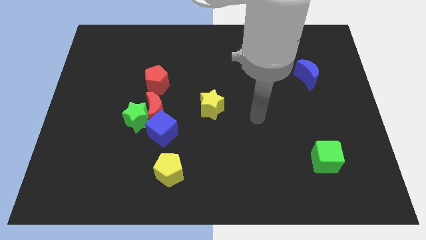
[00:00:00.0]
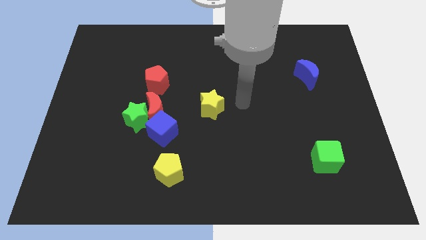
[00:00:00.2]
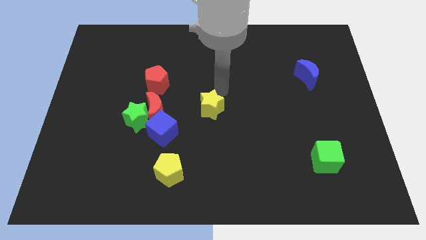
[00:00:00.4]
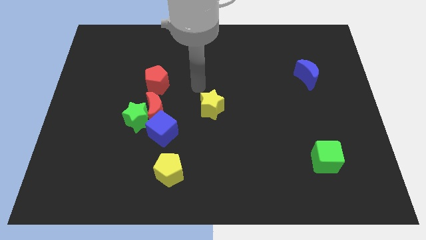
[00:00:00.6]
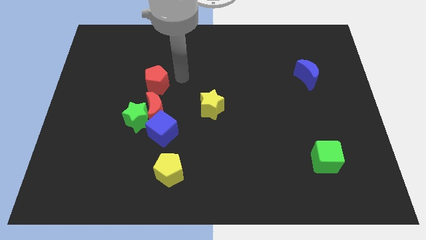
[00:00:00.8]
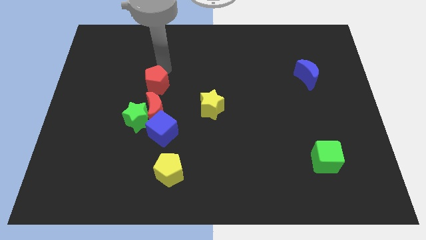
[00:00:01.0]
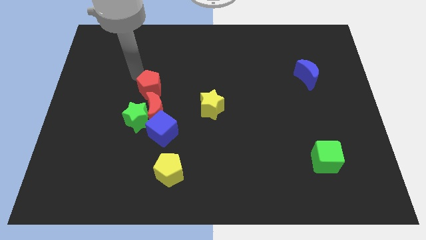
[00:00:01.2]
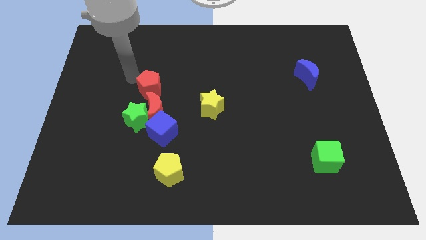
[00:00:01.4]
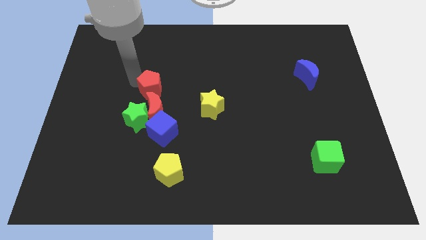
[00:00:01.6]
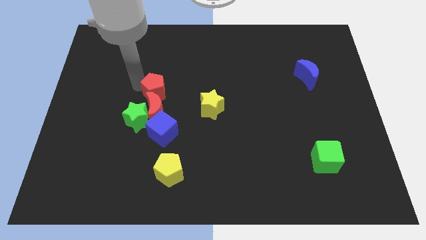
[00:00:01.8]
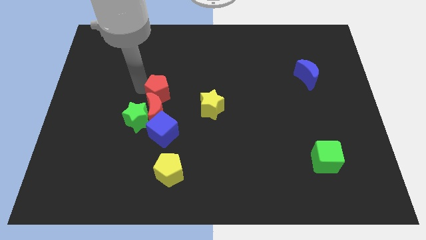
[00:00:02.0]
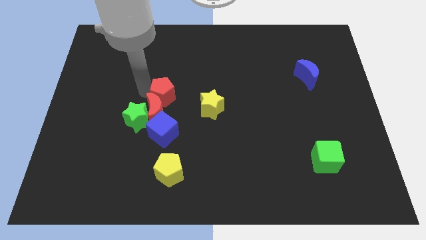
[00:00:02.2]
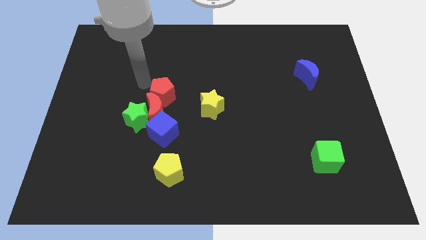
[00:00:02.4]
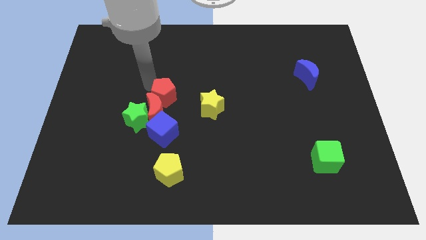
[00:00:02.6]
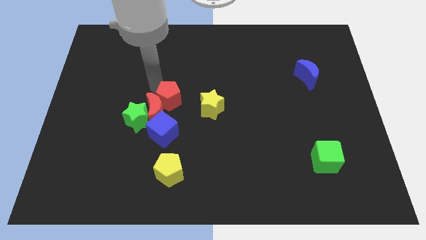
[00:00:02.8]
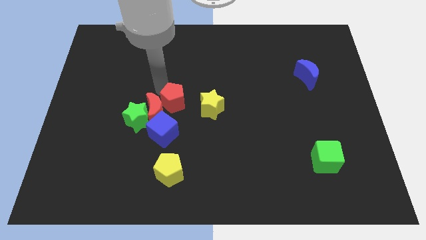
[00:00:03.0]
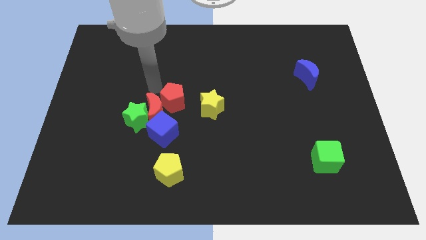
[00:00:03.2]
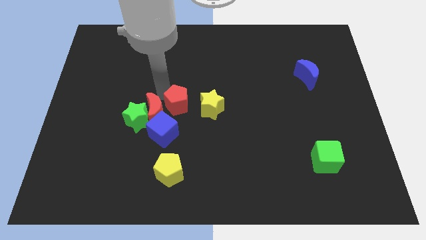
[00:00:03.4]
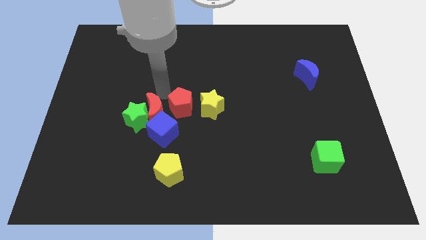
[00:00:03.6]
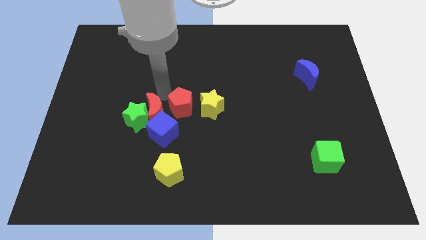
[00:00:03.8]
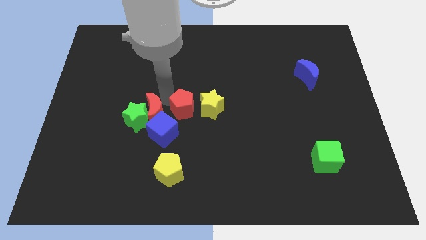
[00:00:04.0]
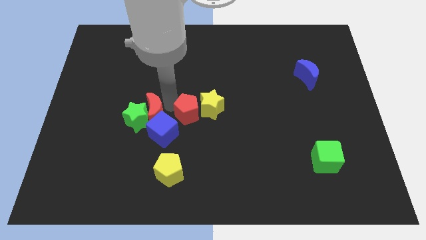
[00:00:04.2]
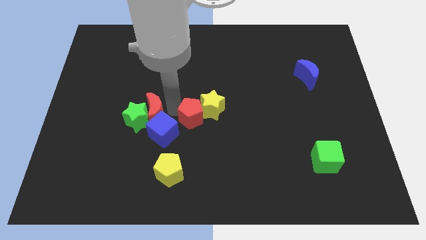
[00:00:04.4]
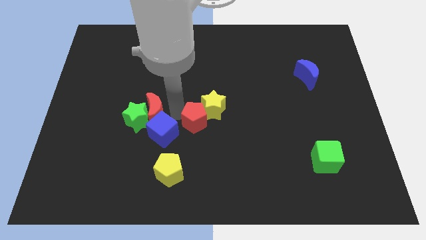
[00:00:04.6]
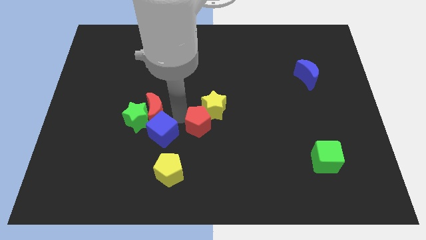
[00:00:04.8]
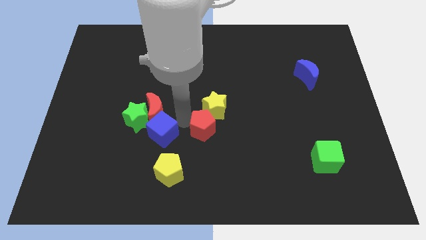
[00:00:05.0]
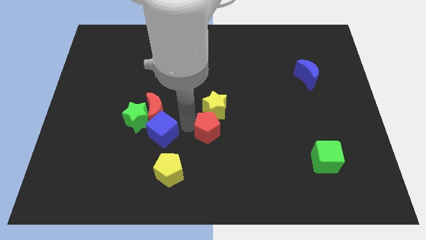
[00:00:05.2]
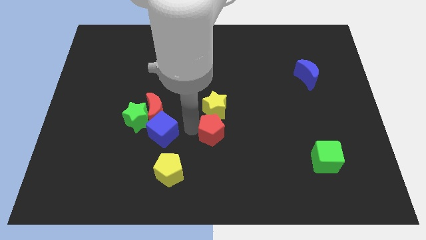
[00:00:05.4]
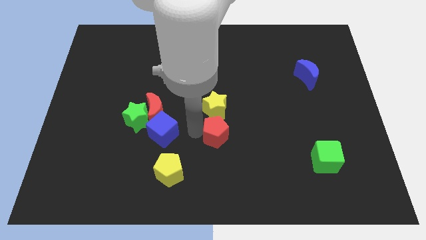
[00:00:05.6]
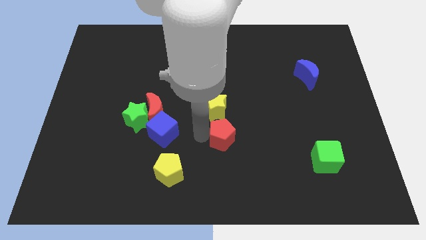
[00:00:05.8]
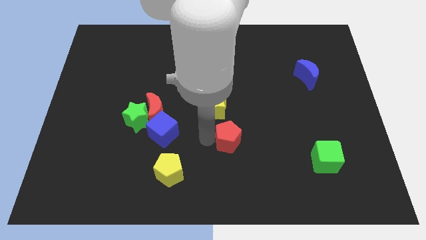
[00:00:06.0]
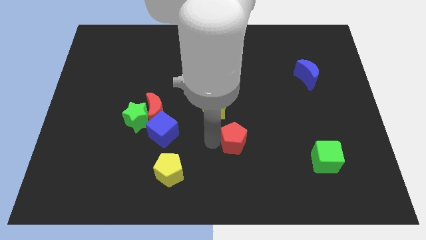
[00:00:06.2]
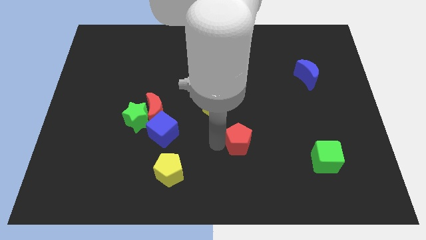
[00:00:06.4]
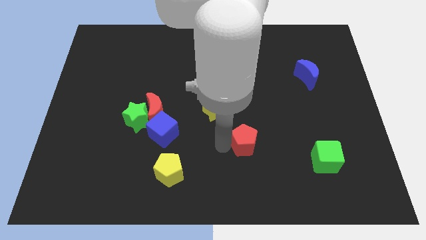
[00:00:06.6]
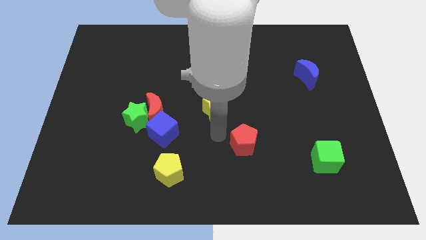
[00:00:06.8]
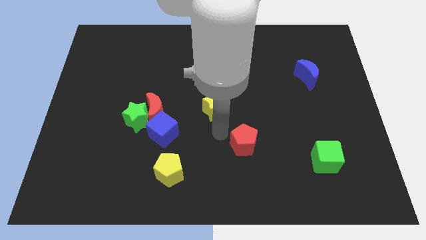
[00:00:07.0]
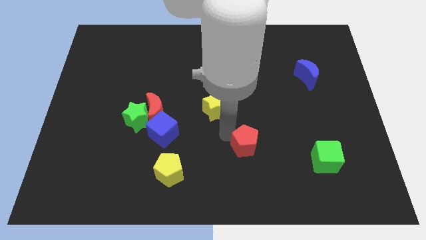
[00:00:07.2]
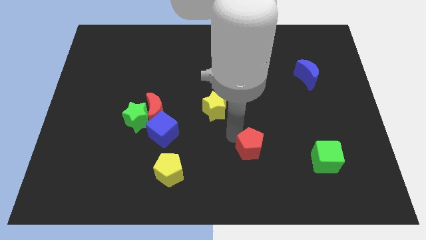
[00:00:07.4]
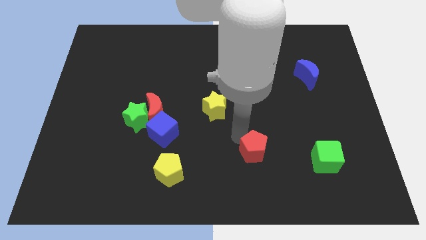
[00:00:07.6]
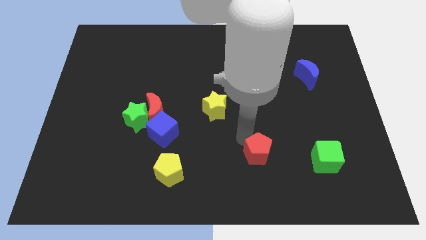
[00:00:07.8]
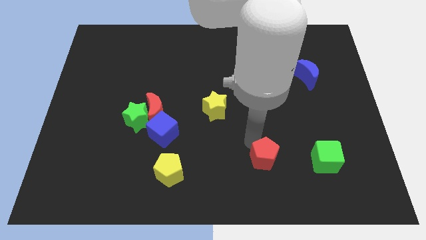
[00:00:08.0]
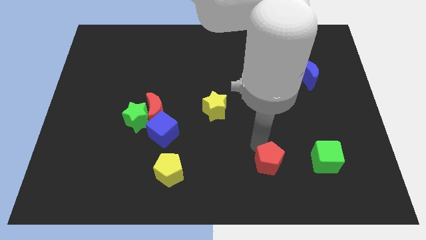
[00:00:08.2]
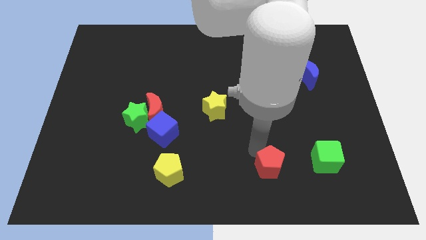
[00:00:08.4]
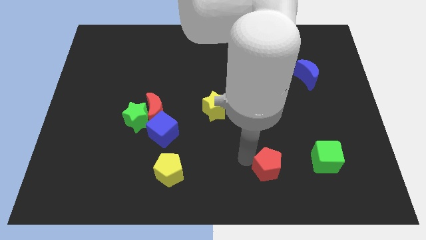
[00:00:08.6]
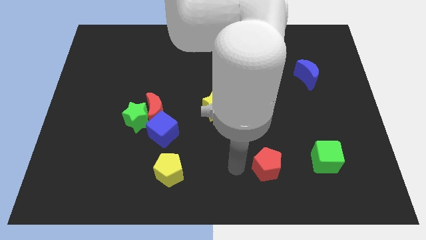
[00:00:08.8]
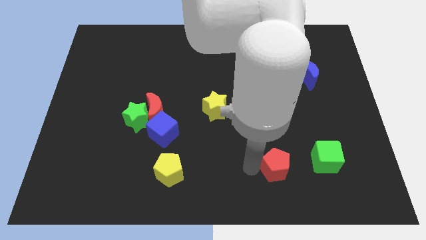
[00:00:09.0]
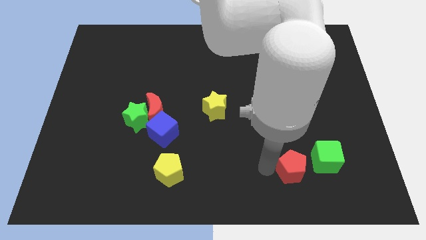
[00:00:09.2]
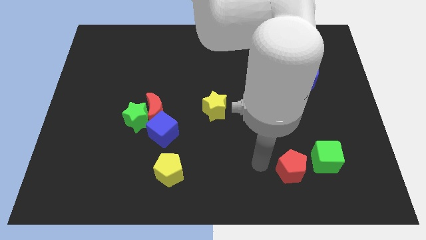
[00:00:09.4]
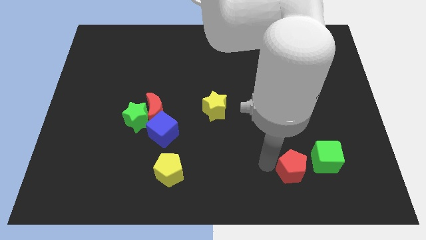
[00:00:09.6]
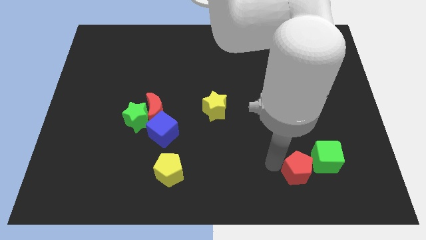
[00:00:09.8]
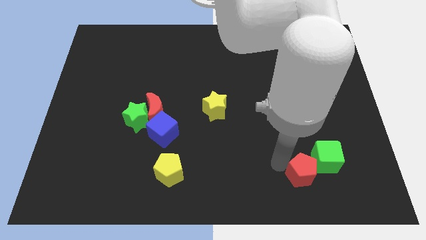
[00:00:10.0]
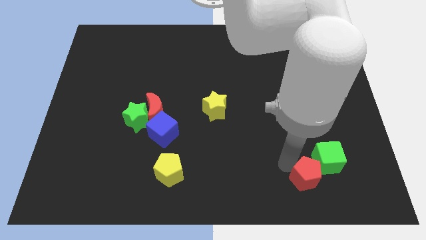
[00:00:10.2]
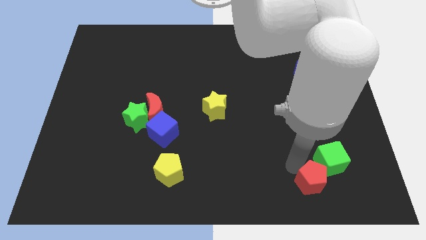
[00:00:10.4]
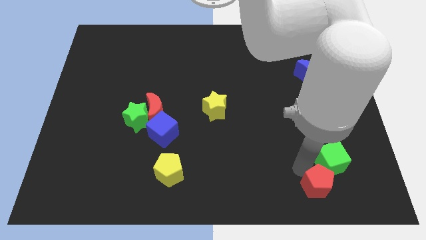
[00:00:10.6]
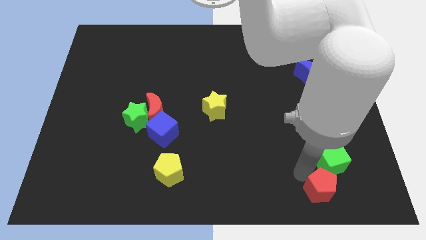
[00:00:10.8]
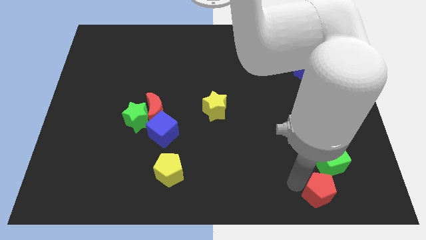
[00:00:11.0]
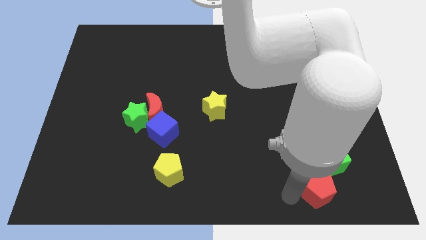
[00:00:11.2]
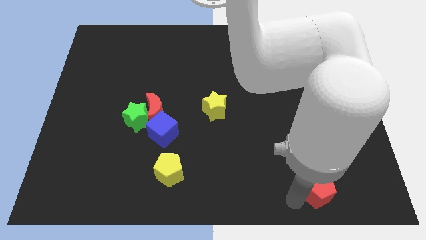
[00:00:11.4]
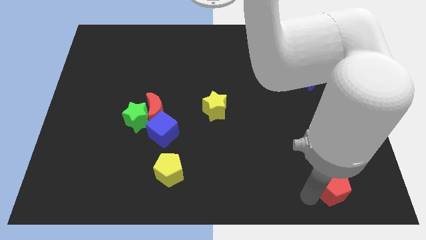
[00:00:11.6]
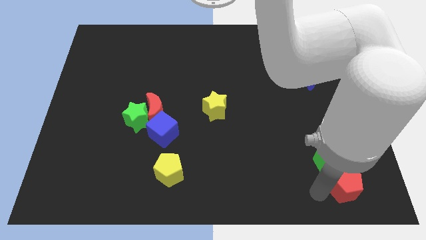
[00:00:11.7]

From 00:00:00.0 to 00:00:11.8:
move the red pentagon to the bottom right corner
